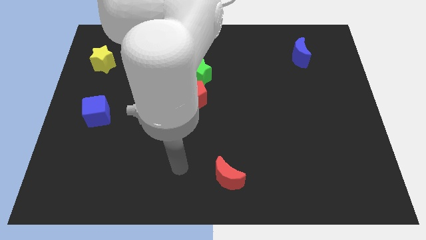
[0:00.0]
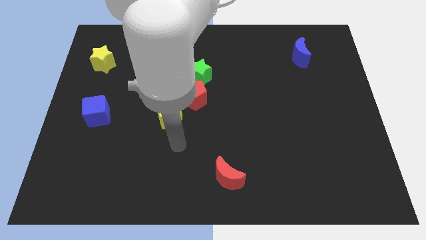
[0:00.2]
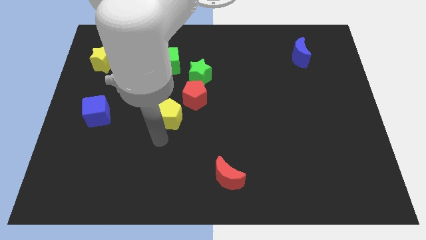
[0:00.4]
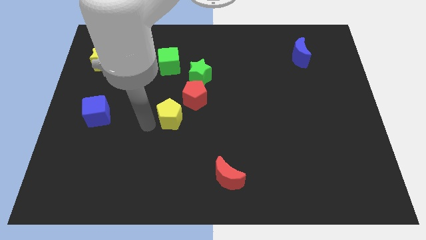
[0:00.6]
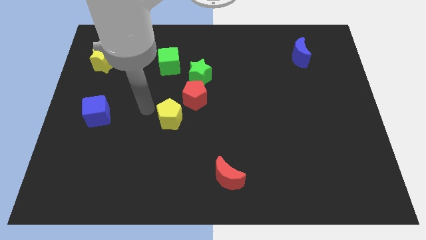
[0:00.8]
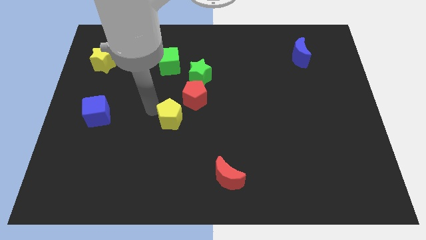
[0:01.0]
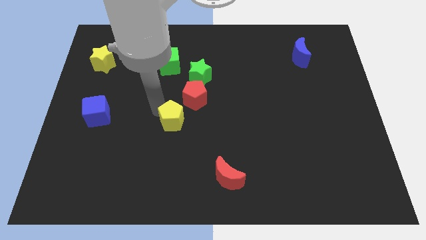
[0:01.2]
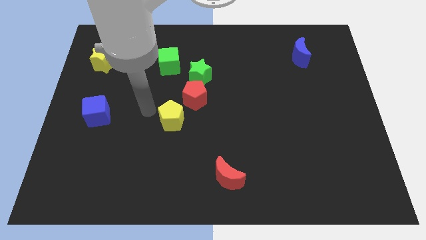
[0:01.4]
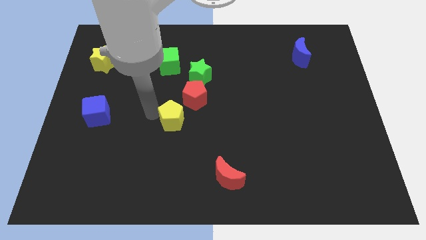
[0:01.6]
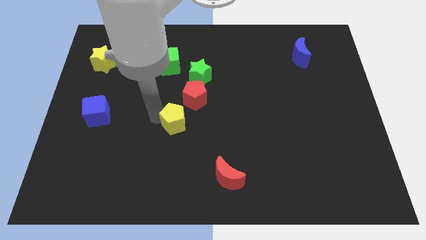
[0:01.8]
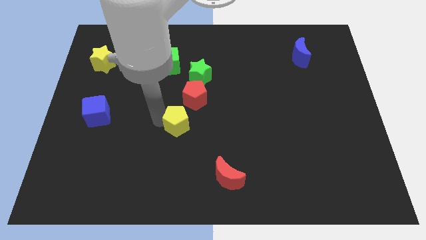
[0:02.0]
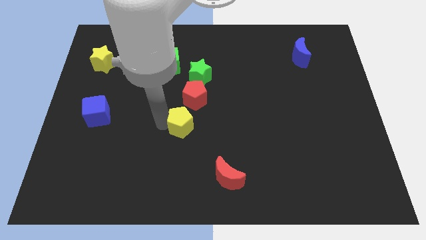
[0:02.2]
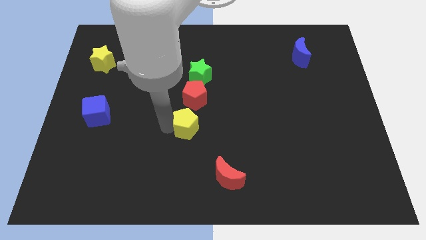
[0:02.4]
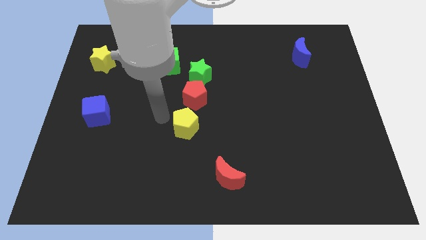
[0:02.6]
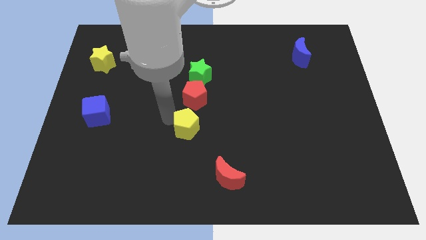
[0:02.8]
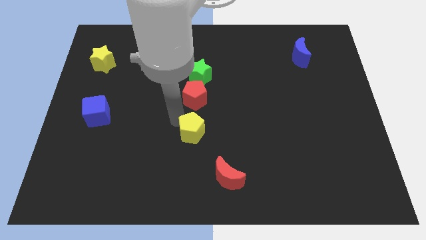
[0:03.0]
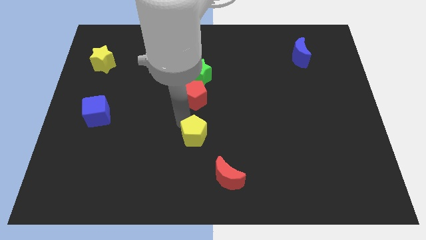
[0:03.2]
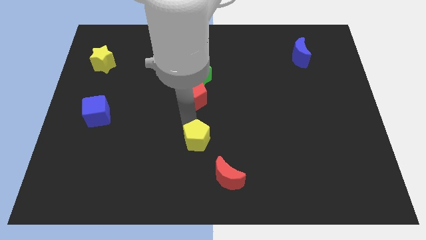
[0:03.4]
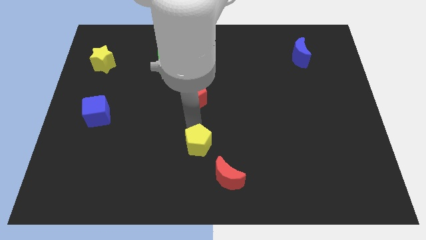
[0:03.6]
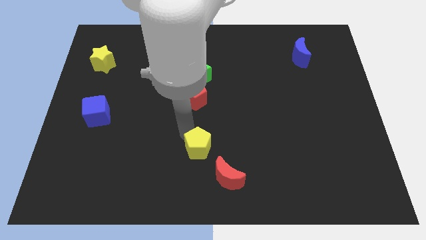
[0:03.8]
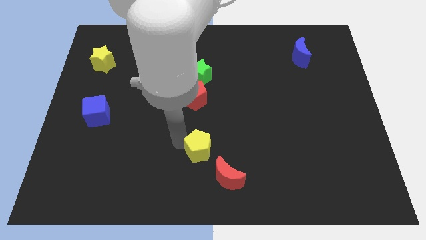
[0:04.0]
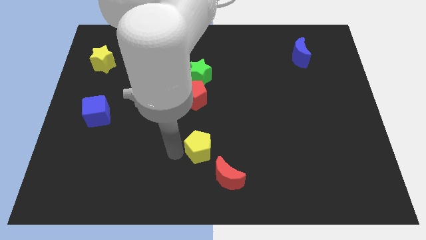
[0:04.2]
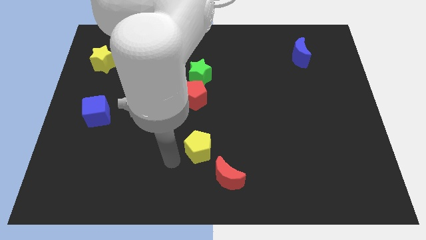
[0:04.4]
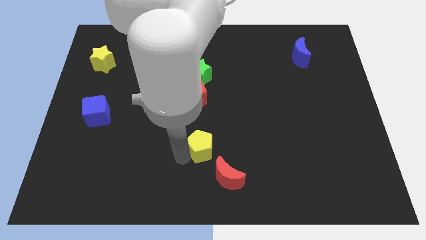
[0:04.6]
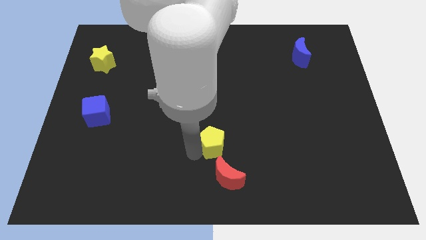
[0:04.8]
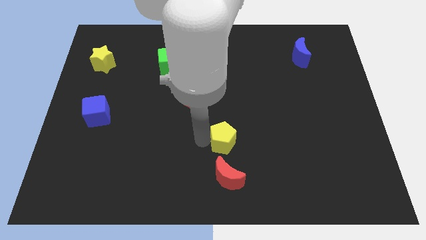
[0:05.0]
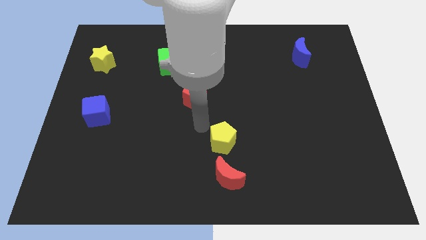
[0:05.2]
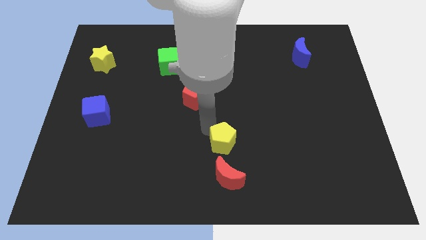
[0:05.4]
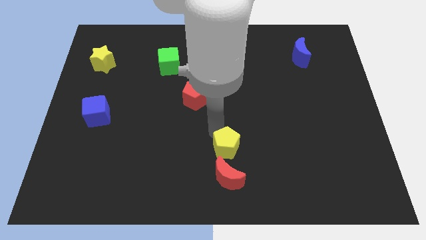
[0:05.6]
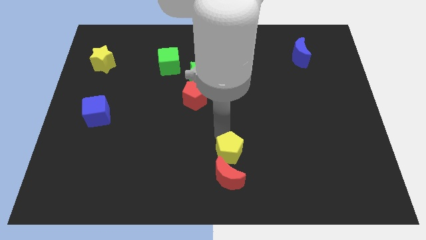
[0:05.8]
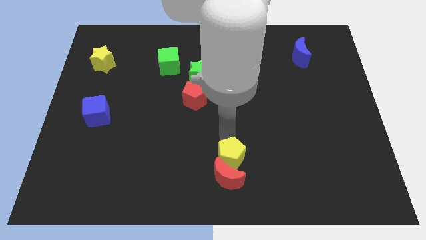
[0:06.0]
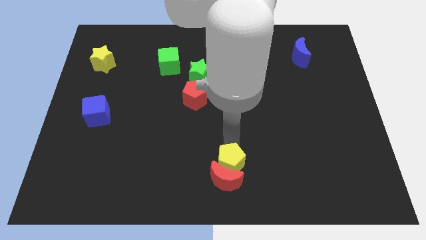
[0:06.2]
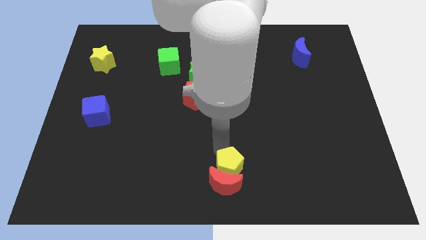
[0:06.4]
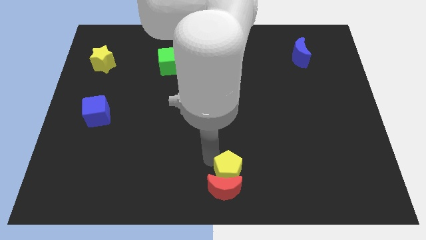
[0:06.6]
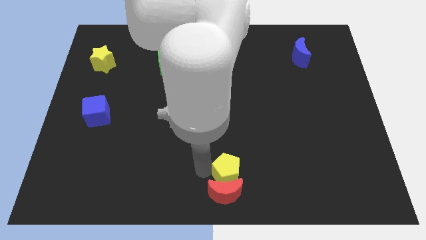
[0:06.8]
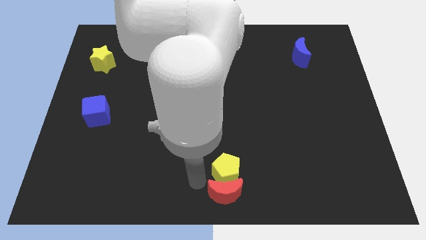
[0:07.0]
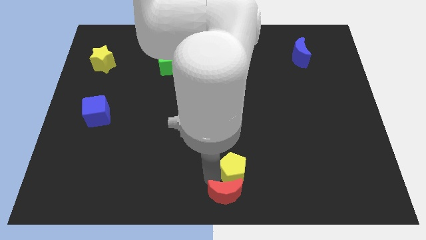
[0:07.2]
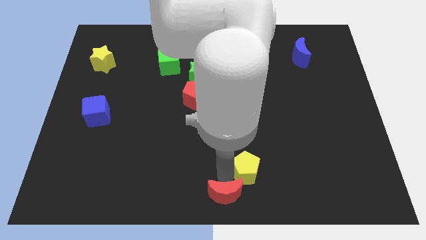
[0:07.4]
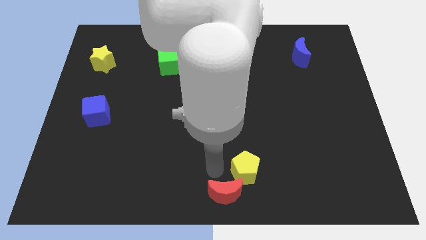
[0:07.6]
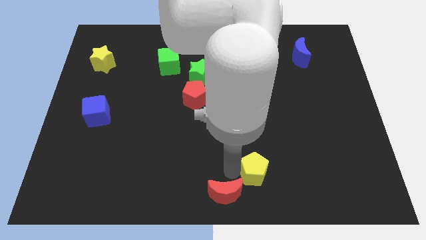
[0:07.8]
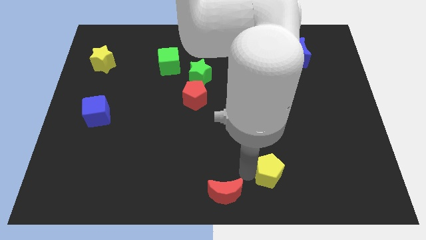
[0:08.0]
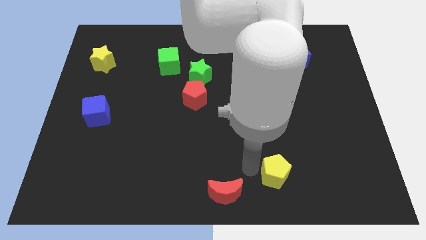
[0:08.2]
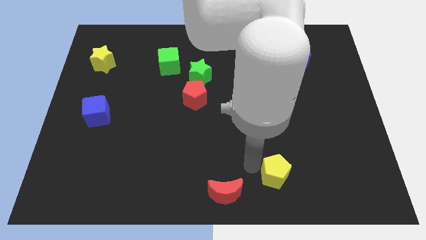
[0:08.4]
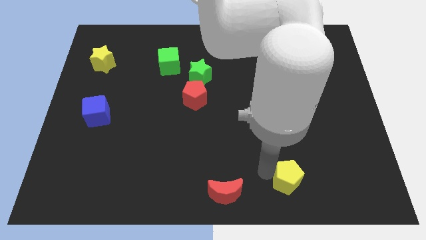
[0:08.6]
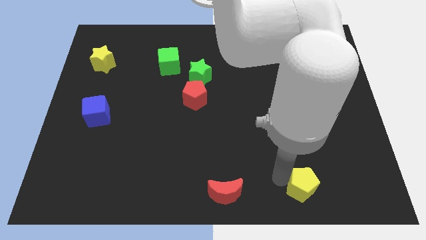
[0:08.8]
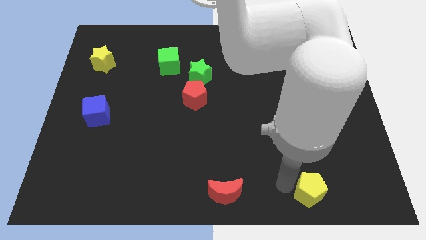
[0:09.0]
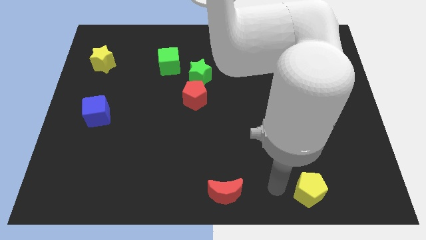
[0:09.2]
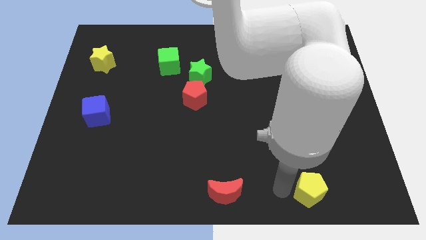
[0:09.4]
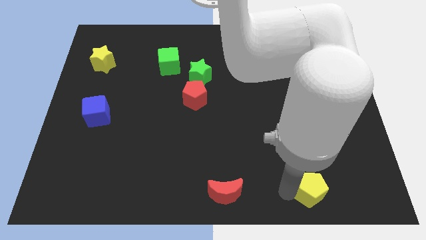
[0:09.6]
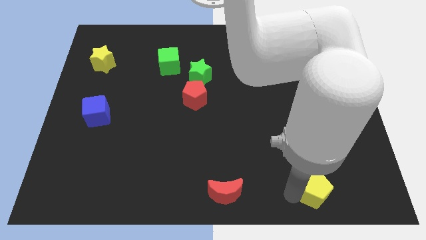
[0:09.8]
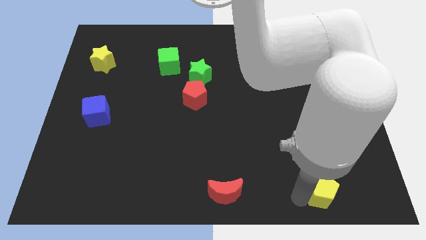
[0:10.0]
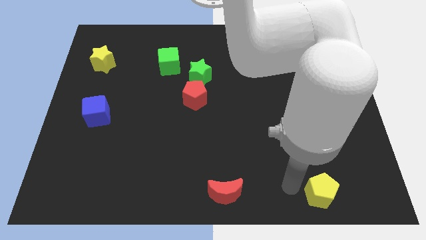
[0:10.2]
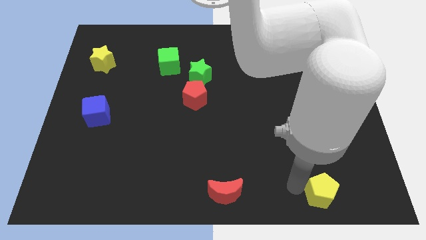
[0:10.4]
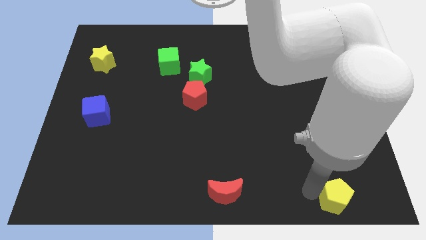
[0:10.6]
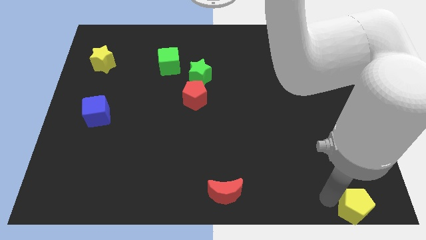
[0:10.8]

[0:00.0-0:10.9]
move the yellow pentagon to the lower right corner
